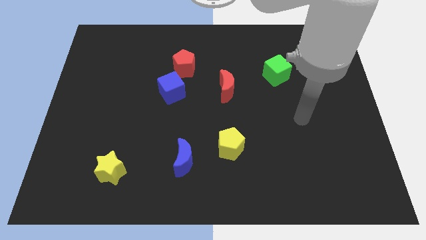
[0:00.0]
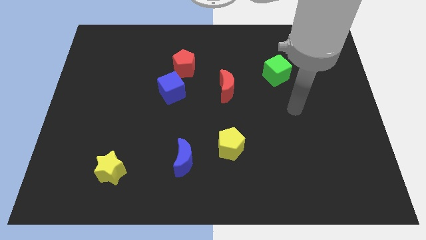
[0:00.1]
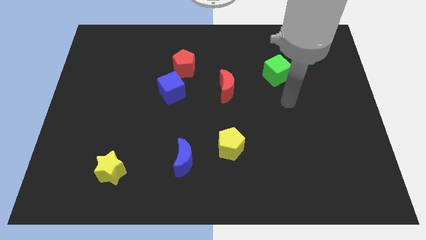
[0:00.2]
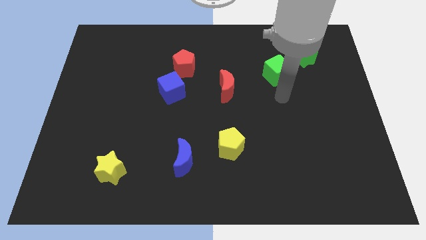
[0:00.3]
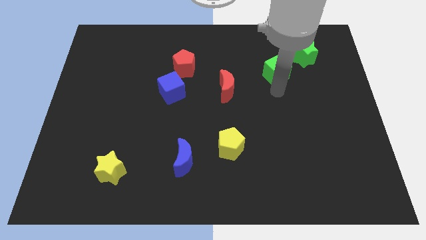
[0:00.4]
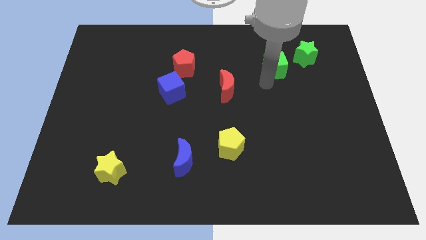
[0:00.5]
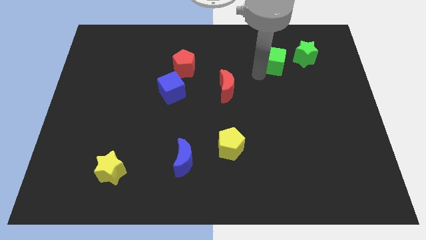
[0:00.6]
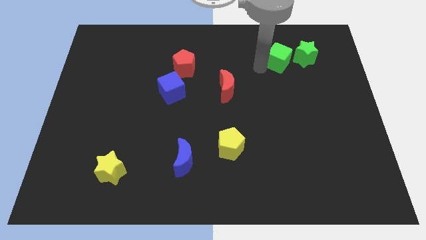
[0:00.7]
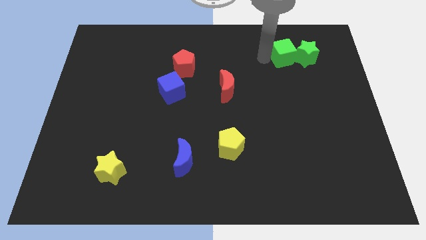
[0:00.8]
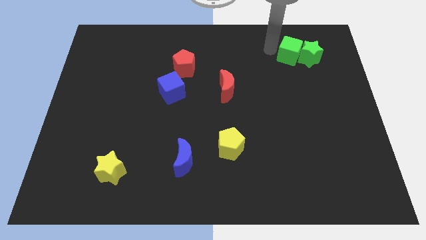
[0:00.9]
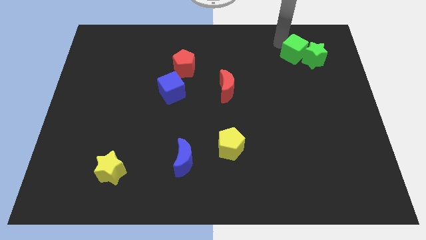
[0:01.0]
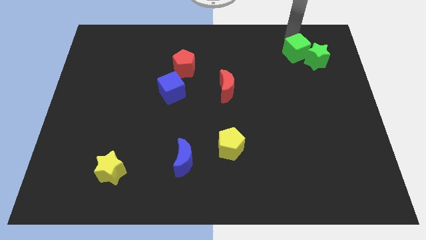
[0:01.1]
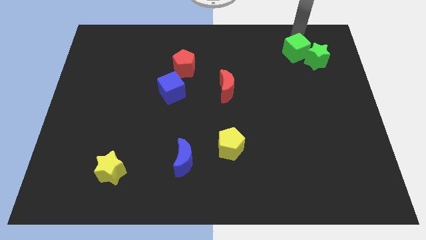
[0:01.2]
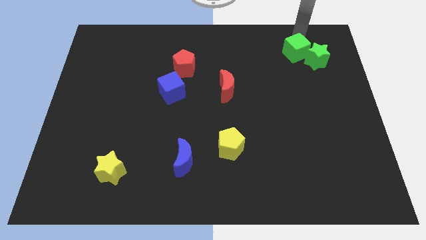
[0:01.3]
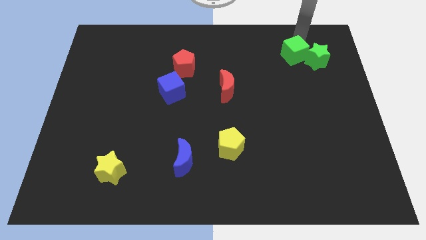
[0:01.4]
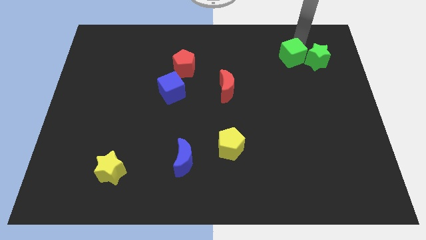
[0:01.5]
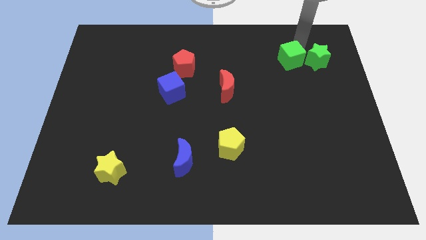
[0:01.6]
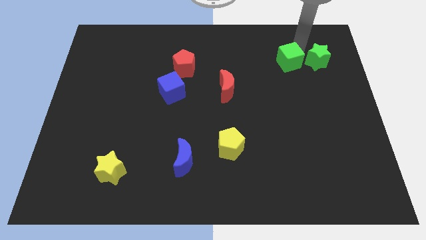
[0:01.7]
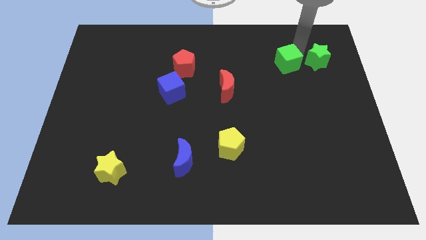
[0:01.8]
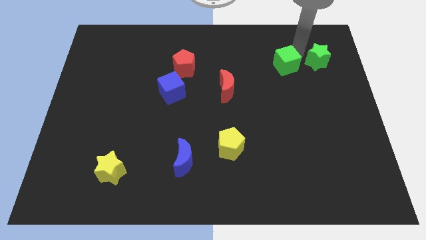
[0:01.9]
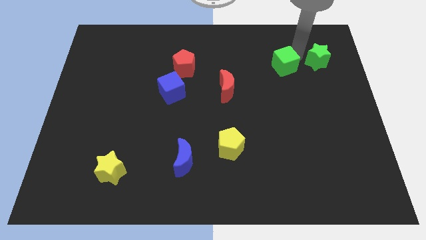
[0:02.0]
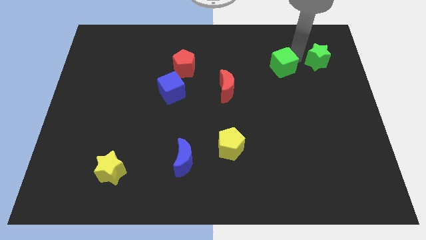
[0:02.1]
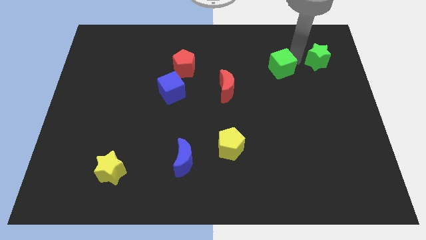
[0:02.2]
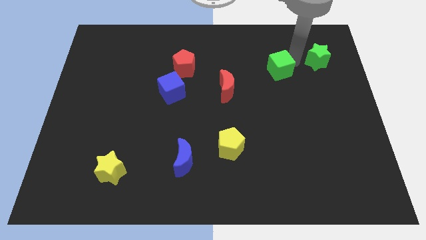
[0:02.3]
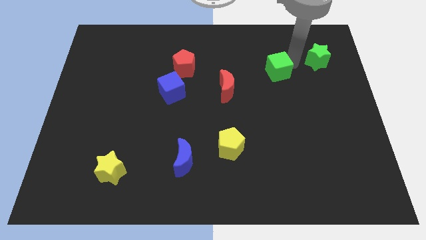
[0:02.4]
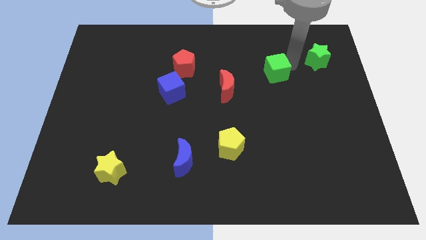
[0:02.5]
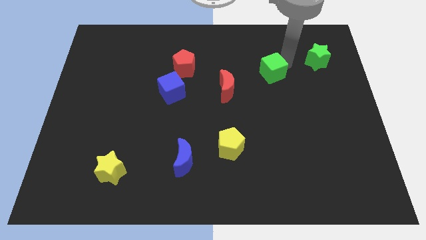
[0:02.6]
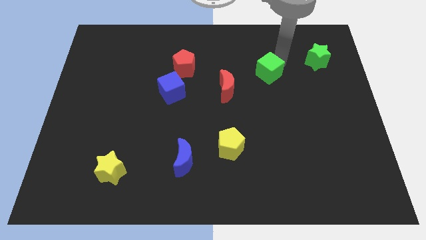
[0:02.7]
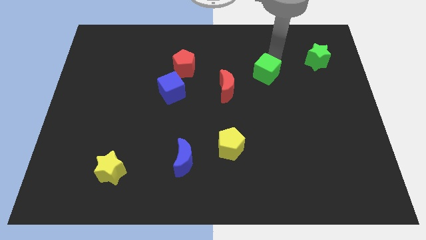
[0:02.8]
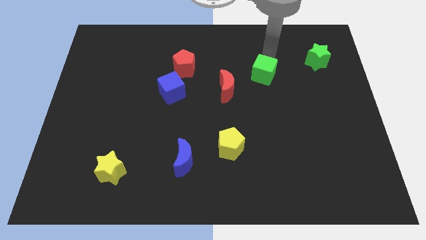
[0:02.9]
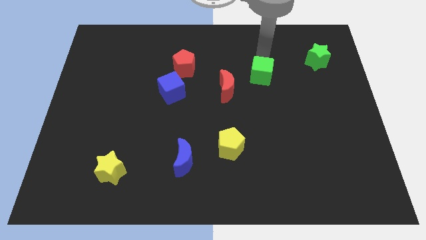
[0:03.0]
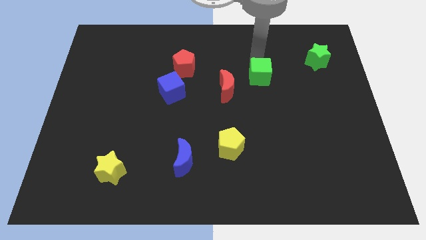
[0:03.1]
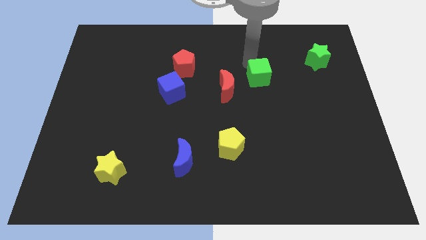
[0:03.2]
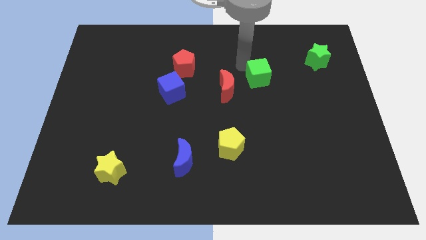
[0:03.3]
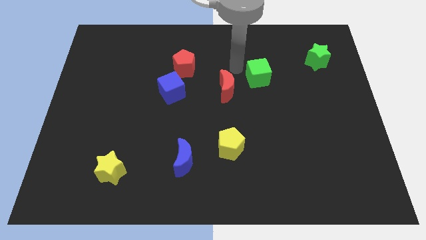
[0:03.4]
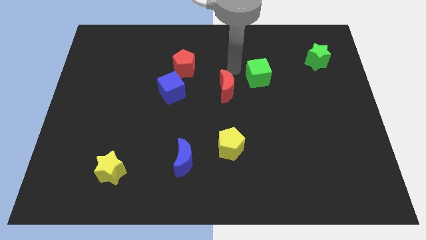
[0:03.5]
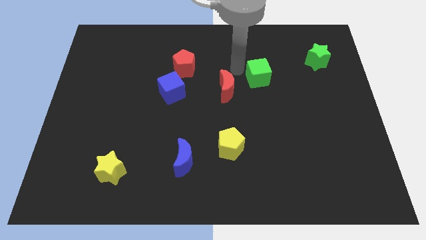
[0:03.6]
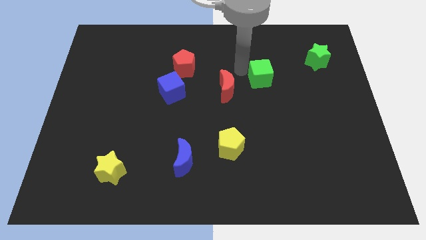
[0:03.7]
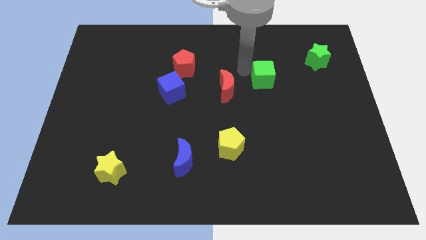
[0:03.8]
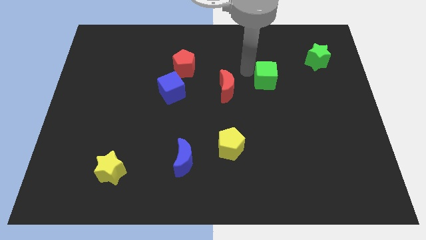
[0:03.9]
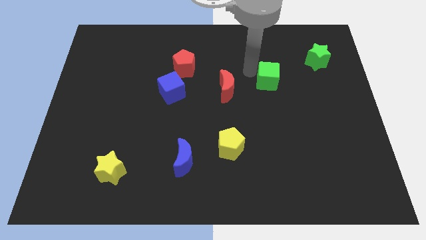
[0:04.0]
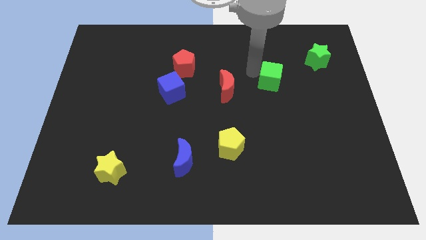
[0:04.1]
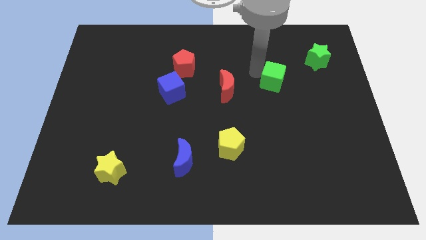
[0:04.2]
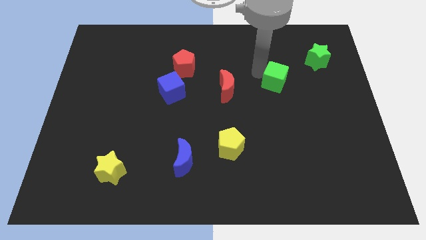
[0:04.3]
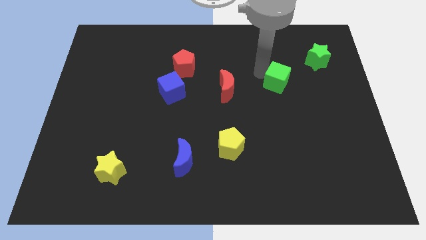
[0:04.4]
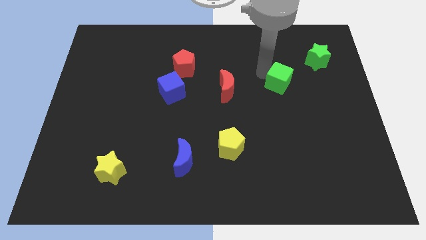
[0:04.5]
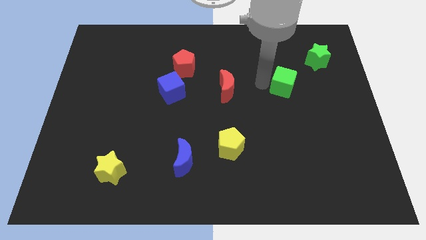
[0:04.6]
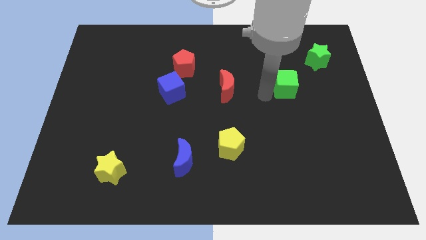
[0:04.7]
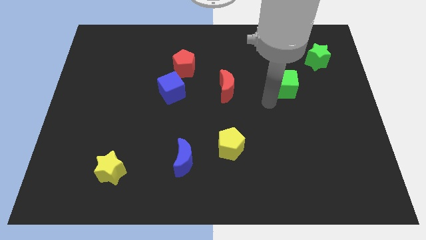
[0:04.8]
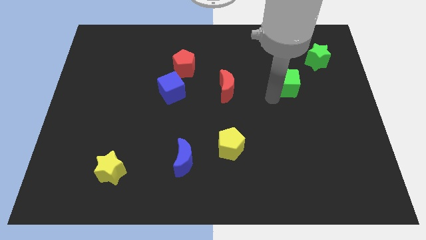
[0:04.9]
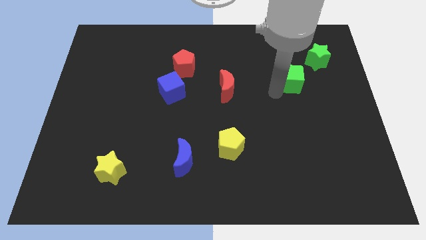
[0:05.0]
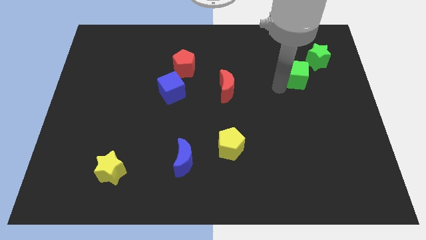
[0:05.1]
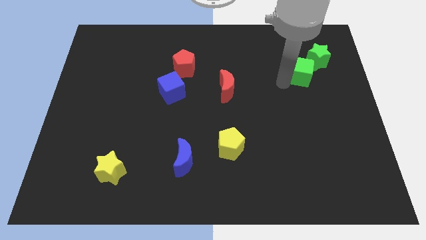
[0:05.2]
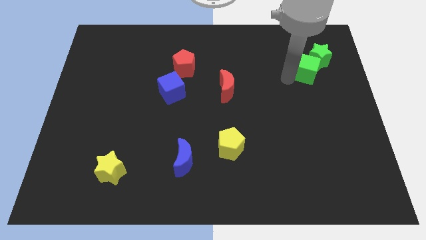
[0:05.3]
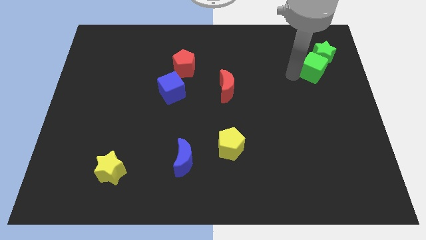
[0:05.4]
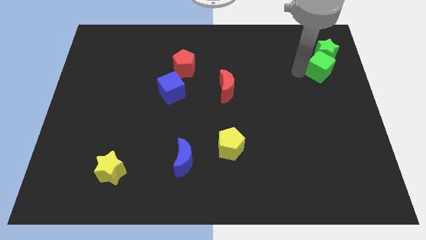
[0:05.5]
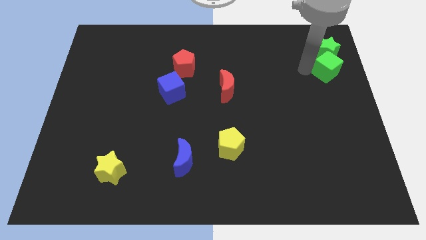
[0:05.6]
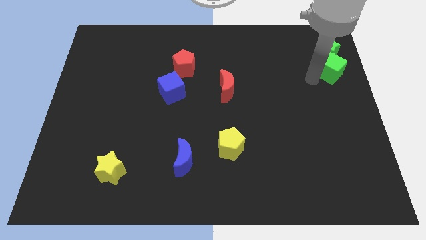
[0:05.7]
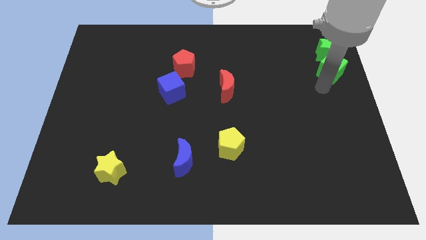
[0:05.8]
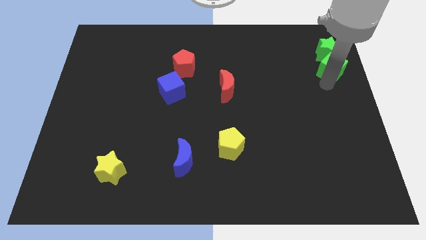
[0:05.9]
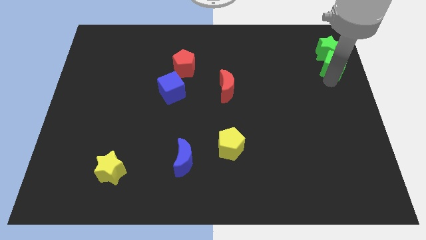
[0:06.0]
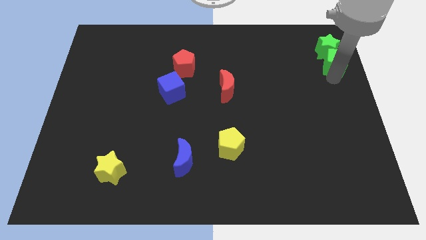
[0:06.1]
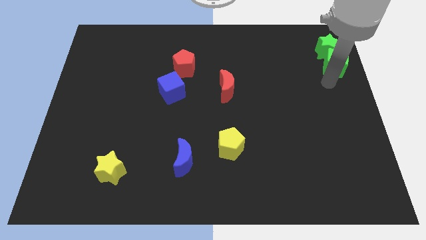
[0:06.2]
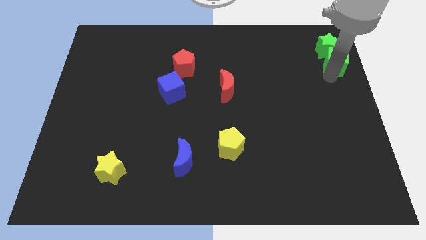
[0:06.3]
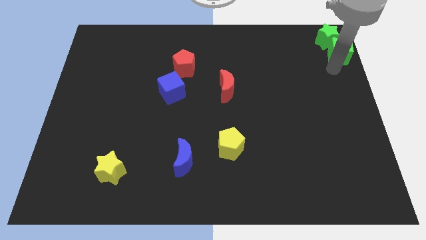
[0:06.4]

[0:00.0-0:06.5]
put the green cube to the top right corner

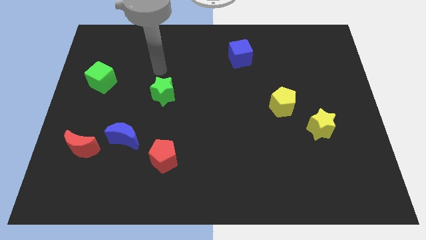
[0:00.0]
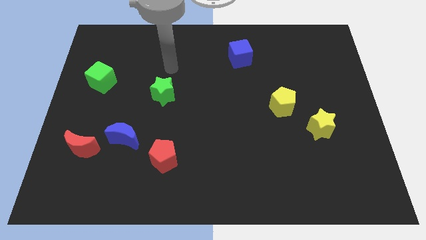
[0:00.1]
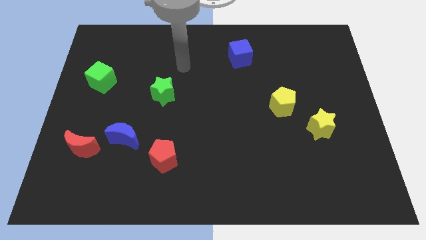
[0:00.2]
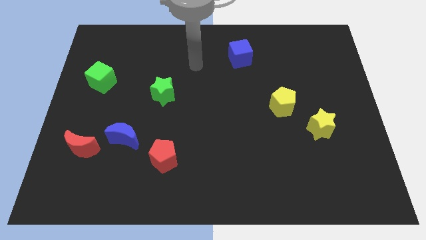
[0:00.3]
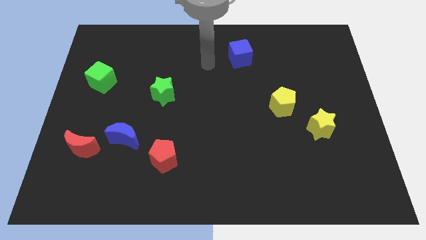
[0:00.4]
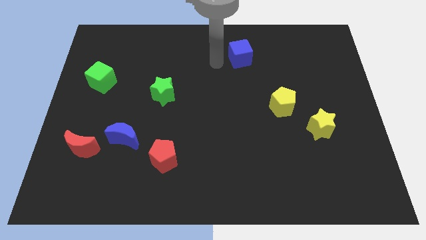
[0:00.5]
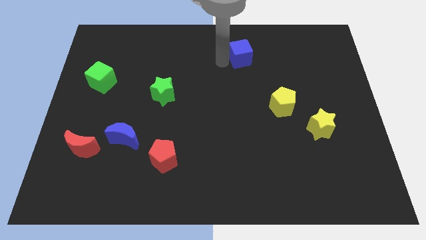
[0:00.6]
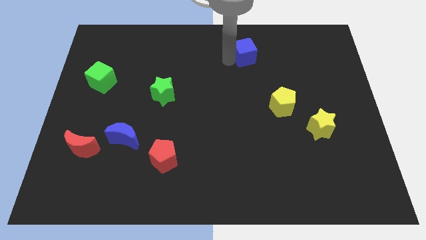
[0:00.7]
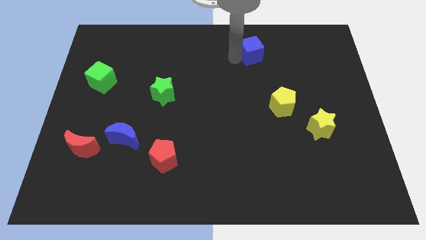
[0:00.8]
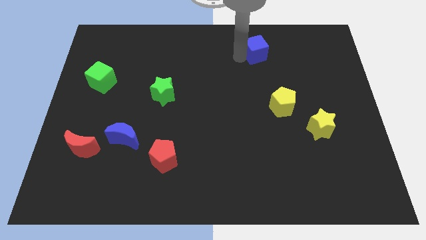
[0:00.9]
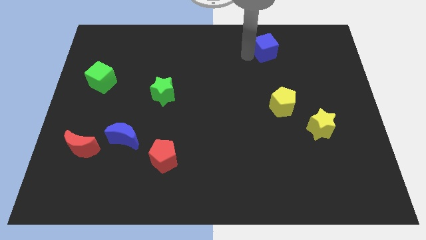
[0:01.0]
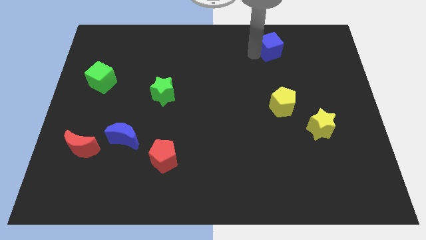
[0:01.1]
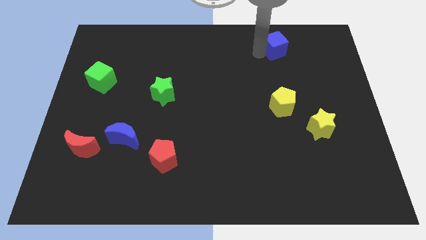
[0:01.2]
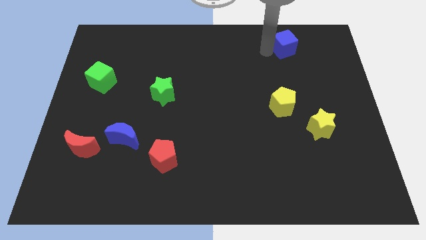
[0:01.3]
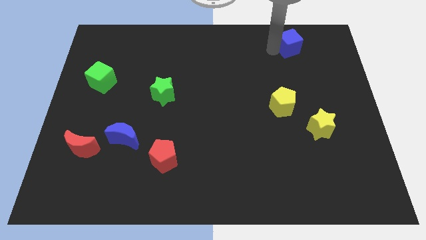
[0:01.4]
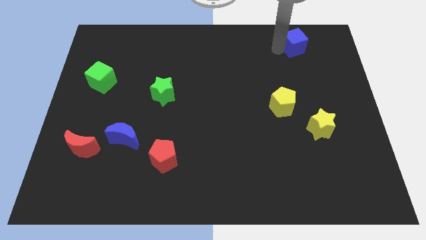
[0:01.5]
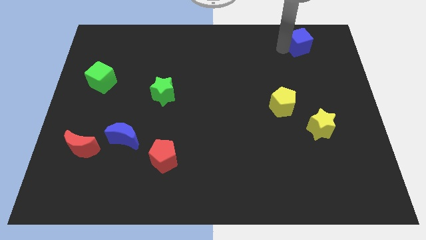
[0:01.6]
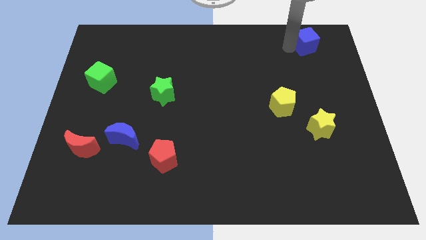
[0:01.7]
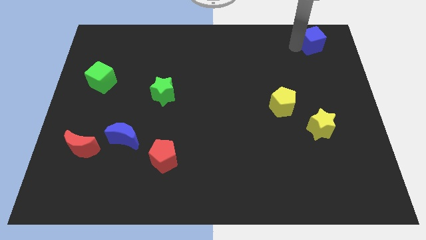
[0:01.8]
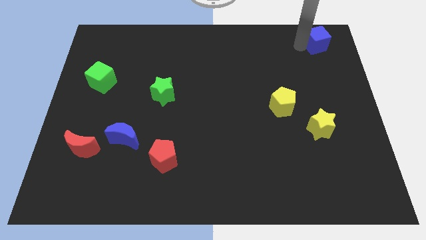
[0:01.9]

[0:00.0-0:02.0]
move the blue cube to the top right corner
